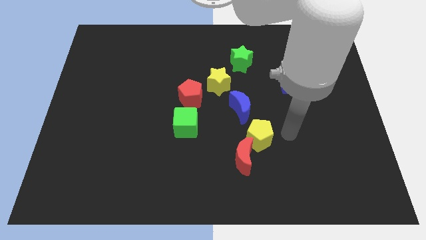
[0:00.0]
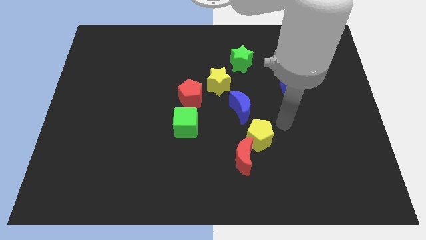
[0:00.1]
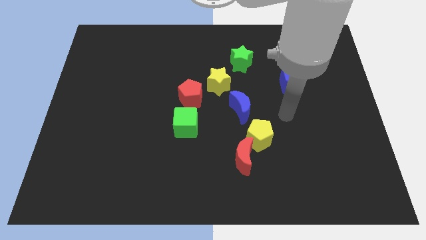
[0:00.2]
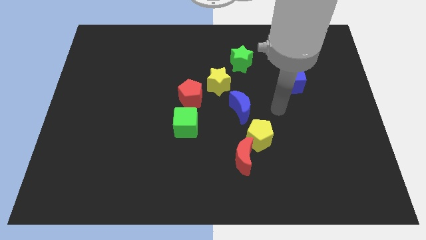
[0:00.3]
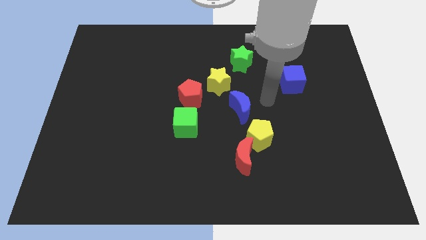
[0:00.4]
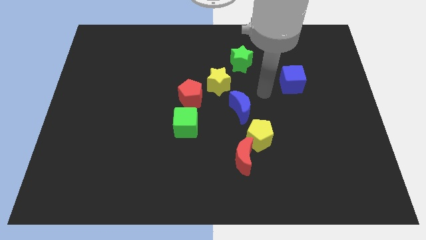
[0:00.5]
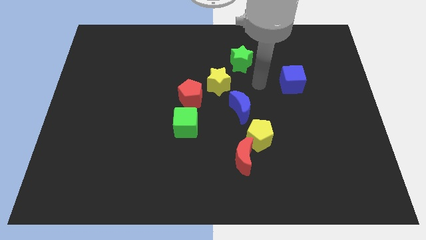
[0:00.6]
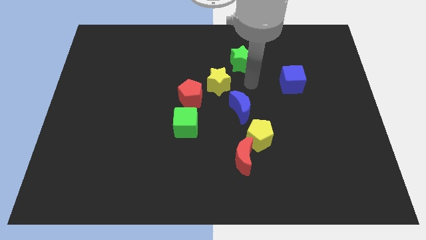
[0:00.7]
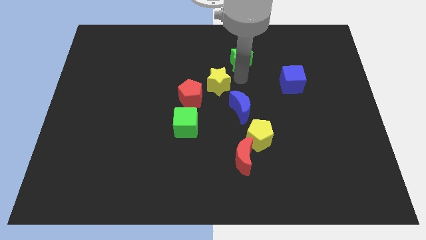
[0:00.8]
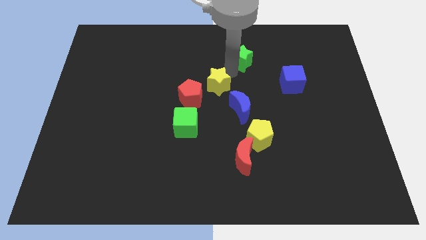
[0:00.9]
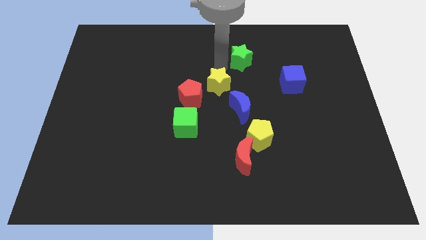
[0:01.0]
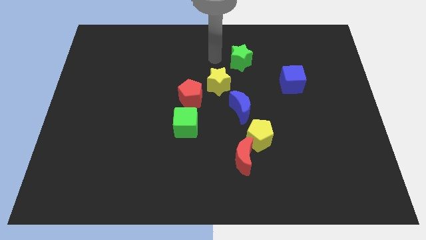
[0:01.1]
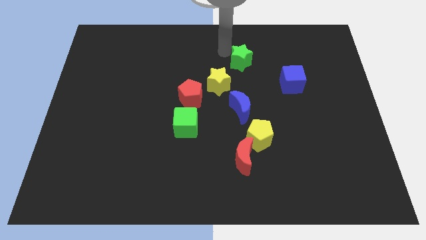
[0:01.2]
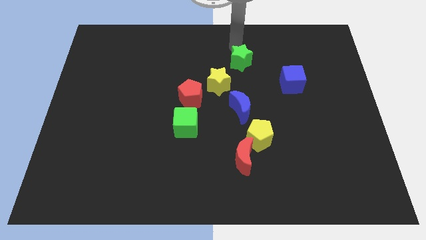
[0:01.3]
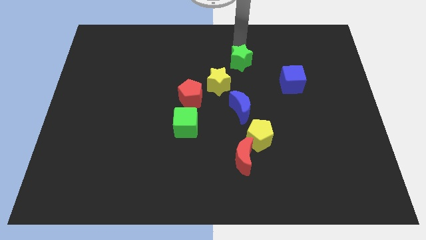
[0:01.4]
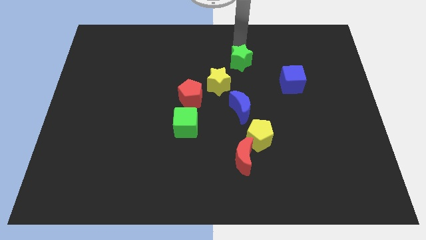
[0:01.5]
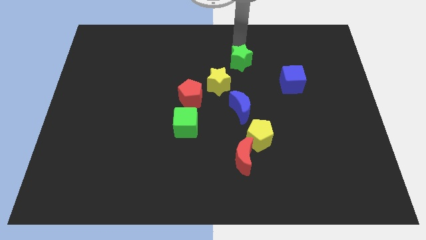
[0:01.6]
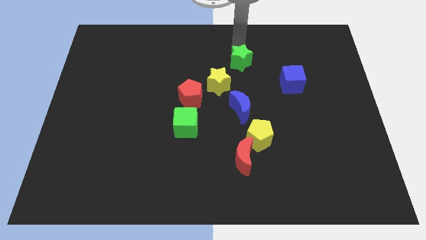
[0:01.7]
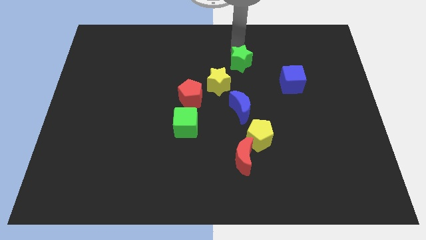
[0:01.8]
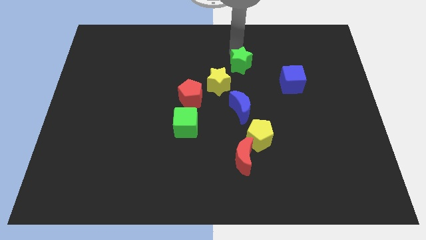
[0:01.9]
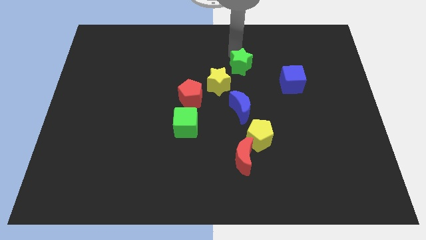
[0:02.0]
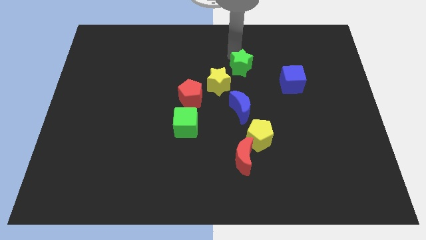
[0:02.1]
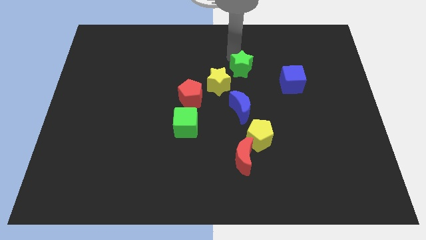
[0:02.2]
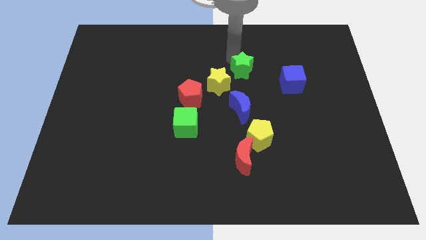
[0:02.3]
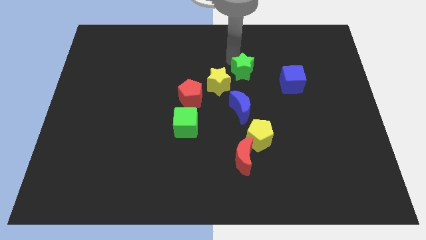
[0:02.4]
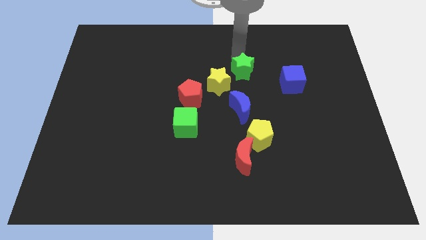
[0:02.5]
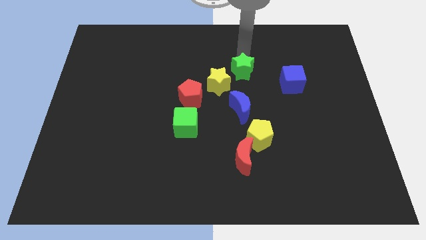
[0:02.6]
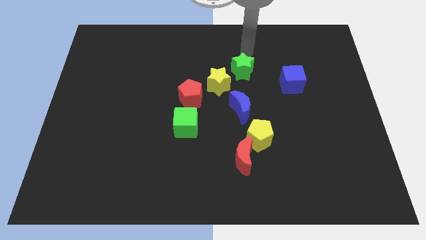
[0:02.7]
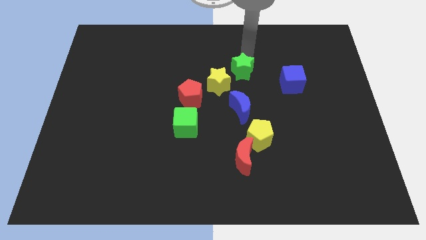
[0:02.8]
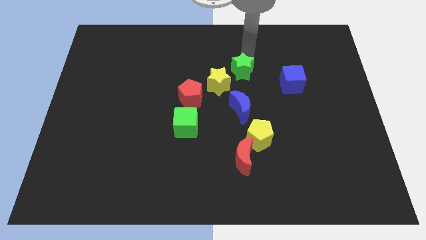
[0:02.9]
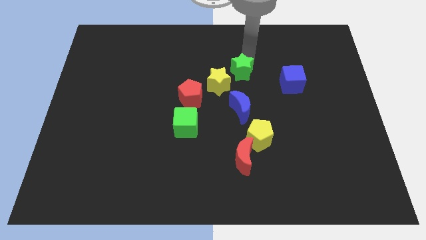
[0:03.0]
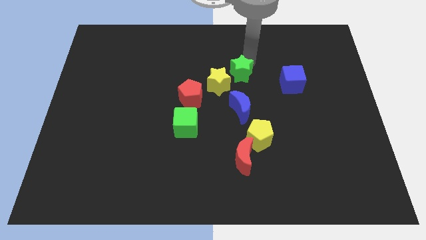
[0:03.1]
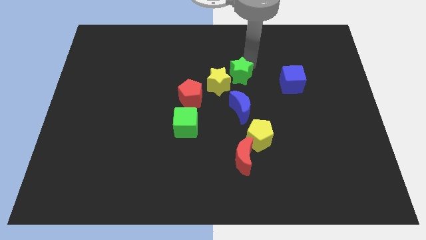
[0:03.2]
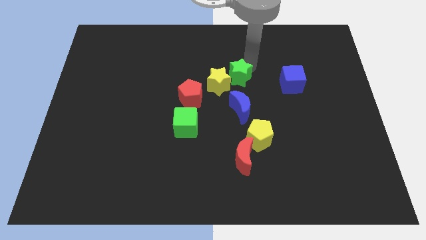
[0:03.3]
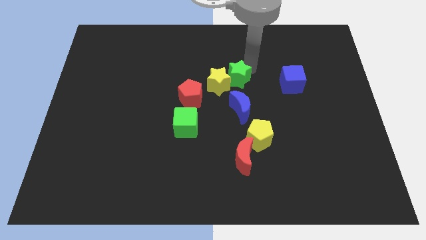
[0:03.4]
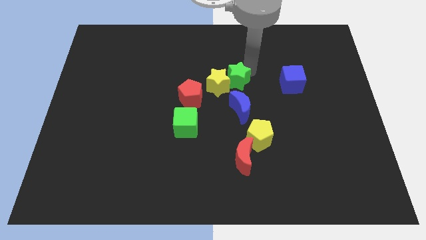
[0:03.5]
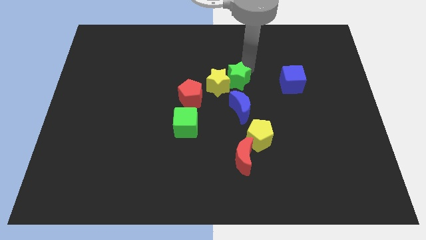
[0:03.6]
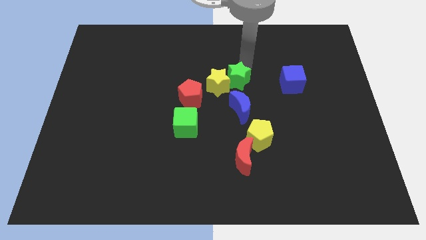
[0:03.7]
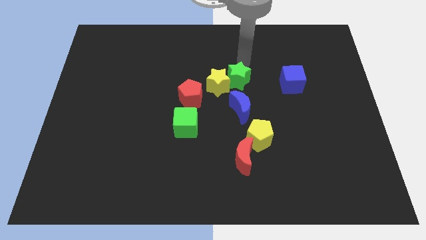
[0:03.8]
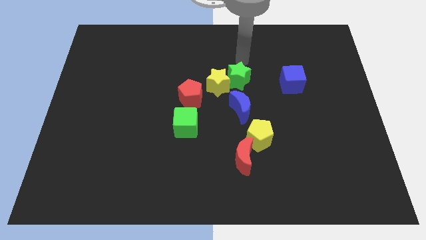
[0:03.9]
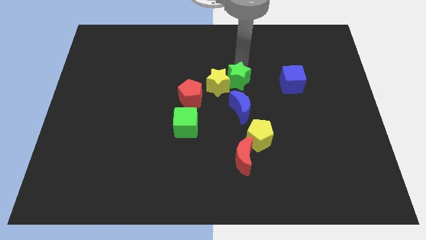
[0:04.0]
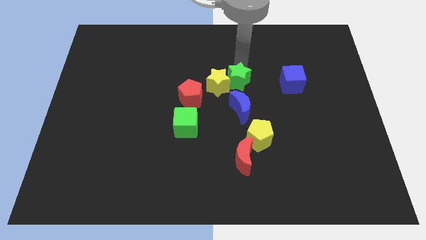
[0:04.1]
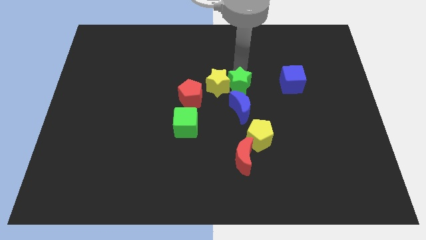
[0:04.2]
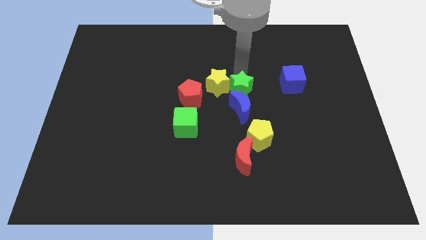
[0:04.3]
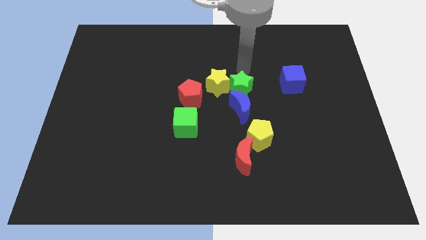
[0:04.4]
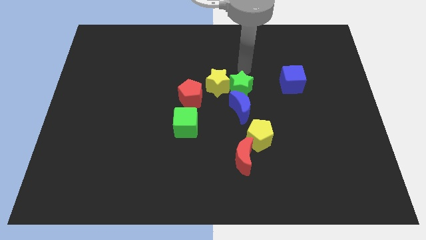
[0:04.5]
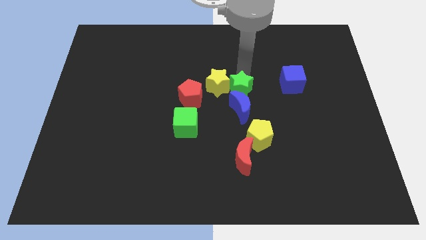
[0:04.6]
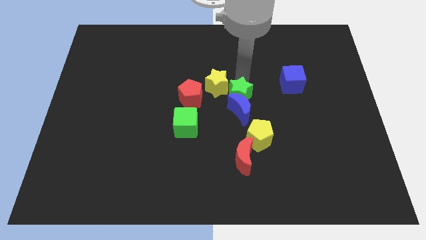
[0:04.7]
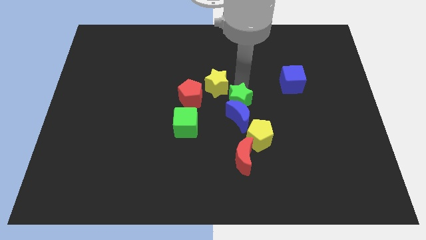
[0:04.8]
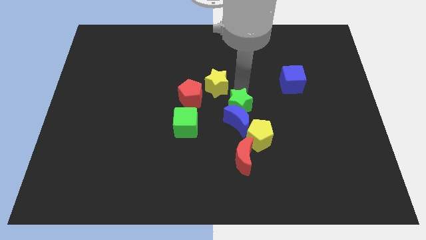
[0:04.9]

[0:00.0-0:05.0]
push the green star diagonally up and to the left of the yellow pentagon

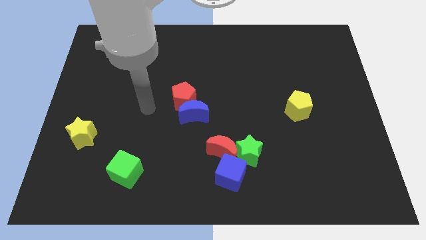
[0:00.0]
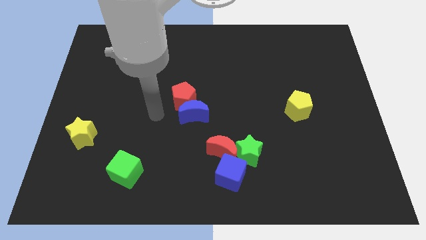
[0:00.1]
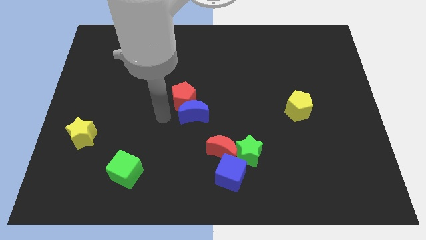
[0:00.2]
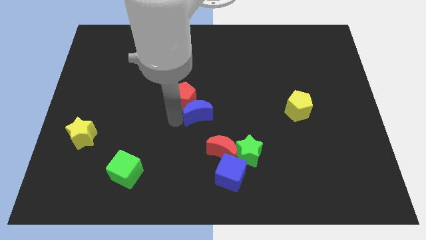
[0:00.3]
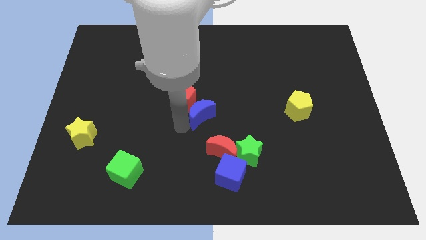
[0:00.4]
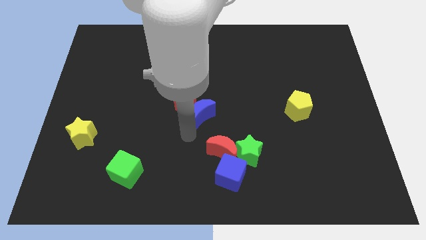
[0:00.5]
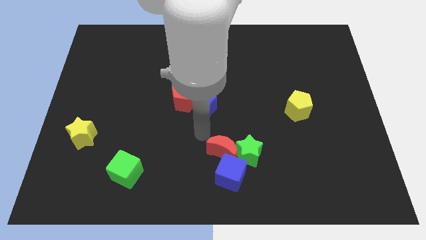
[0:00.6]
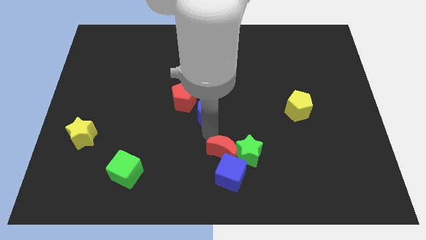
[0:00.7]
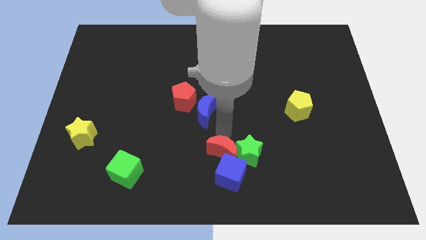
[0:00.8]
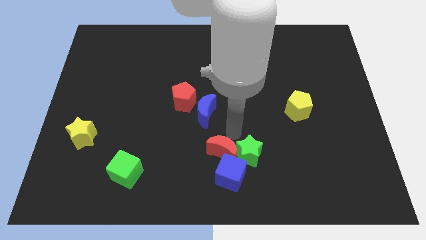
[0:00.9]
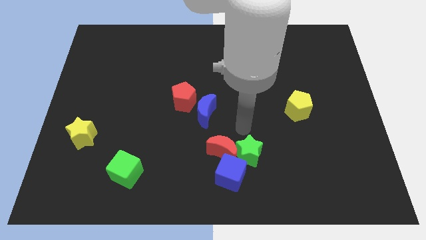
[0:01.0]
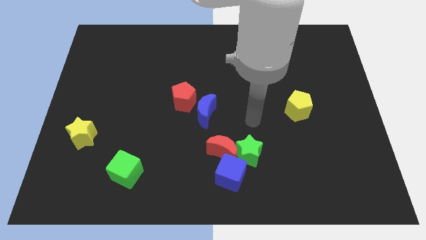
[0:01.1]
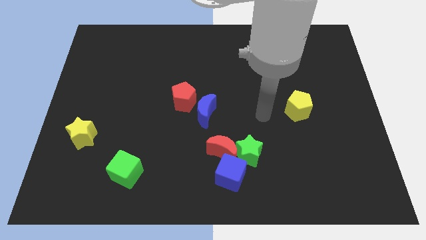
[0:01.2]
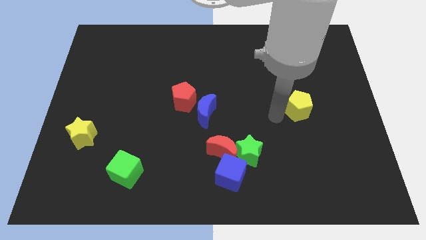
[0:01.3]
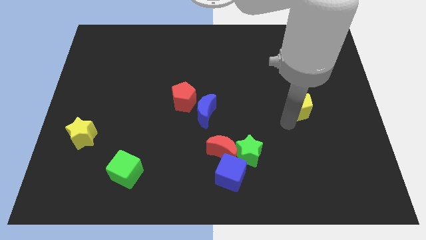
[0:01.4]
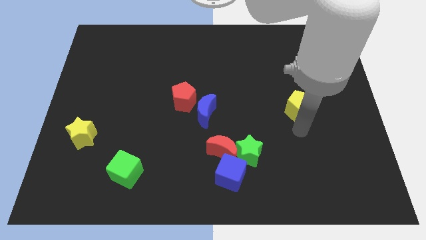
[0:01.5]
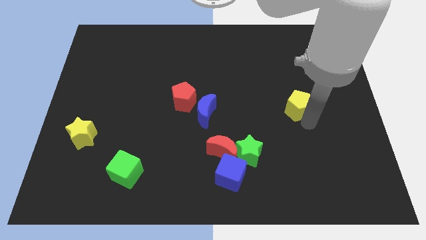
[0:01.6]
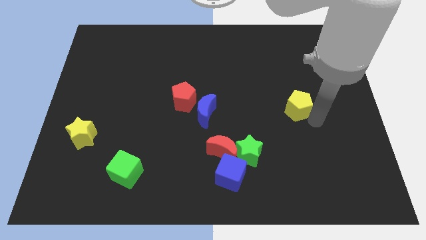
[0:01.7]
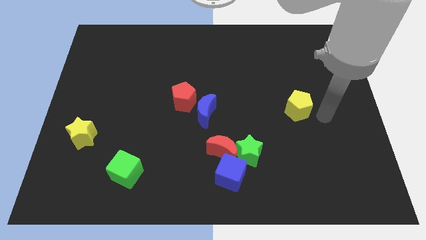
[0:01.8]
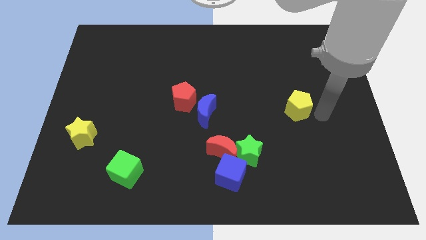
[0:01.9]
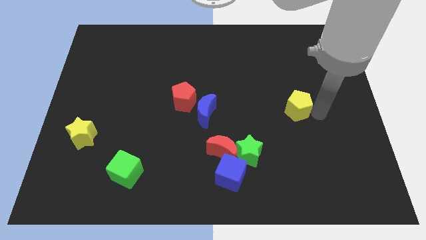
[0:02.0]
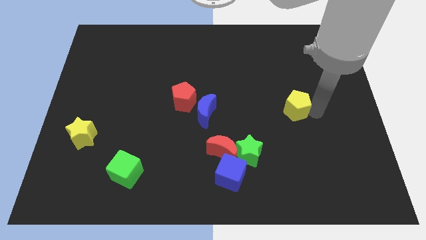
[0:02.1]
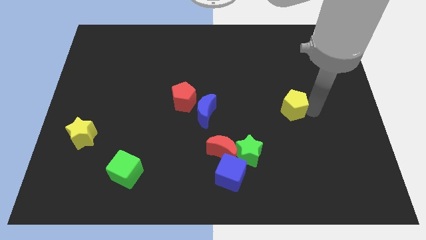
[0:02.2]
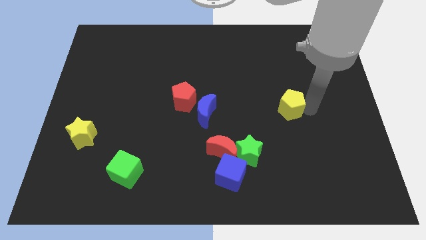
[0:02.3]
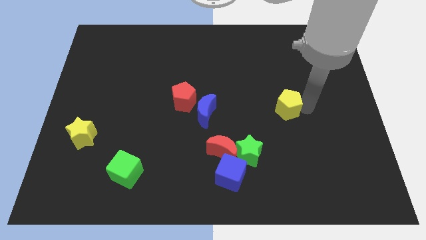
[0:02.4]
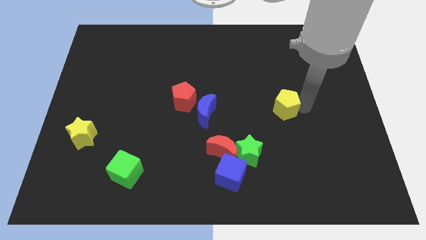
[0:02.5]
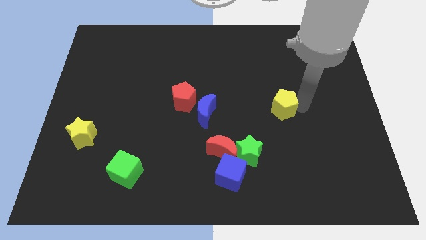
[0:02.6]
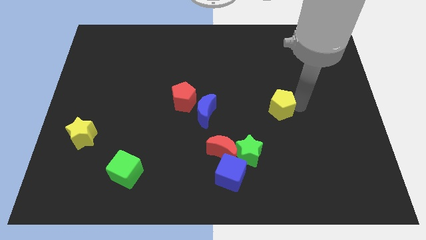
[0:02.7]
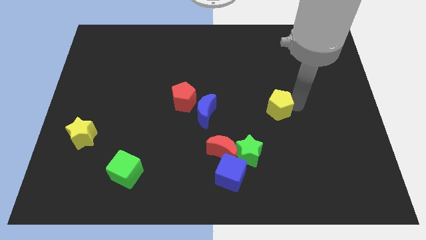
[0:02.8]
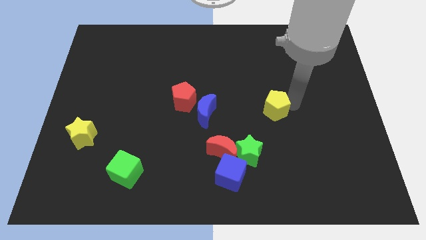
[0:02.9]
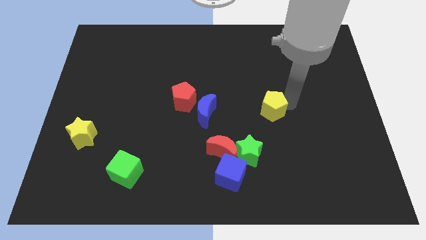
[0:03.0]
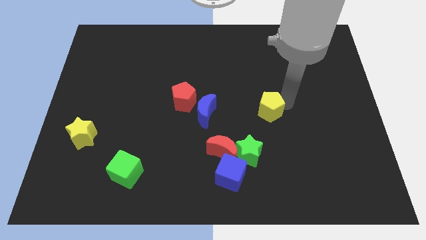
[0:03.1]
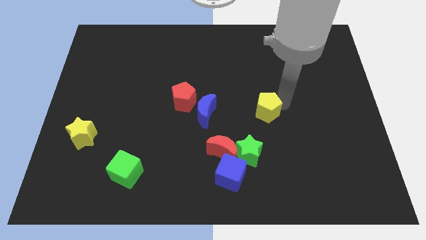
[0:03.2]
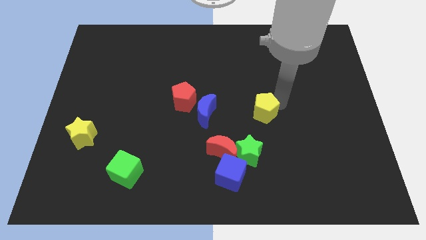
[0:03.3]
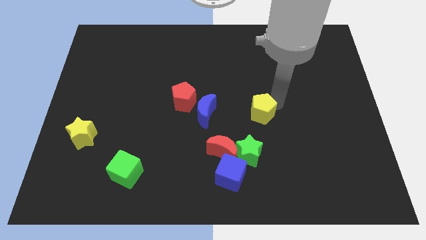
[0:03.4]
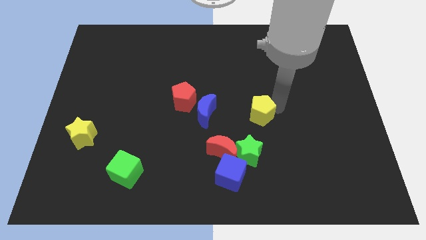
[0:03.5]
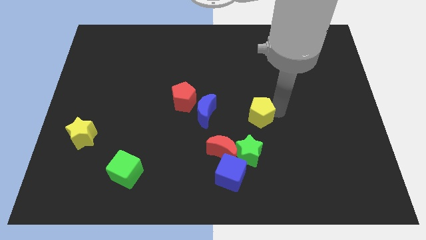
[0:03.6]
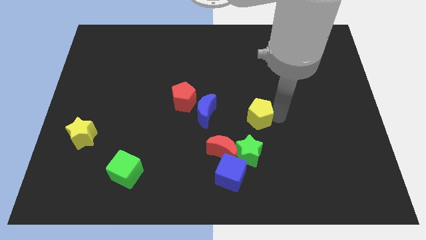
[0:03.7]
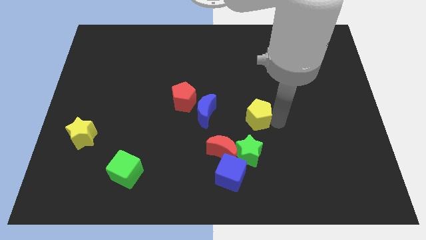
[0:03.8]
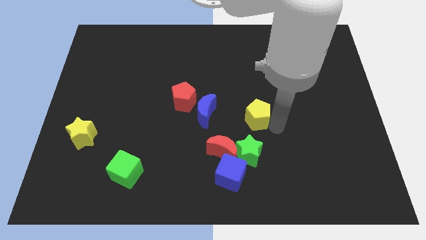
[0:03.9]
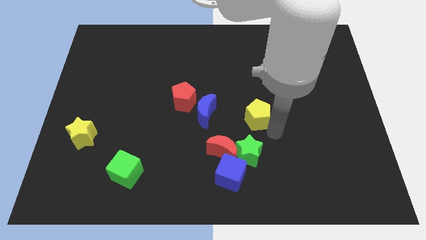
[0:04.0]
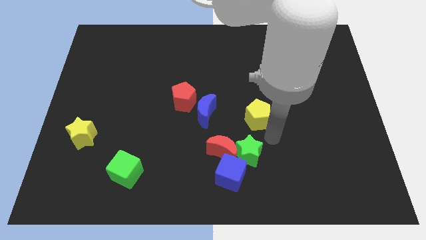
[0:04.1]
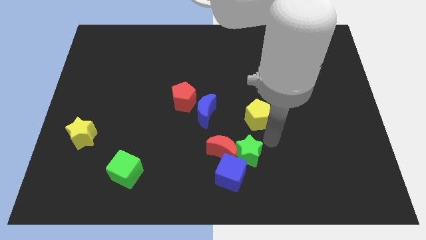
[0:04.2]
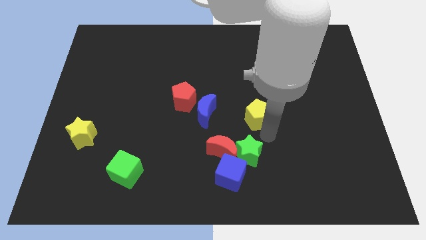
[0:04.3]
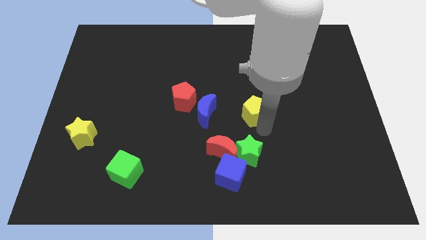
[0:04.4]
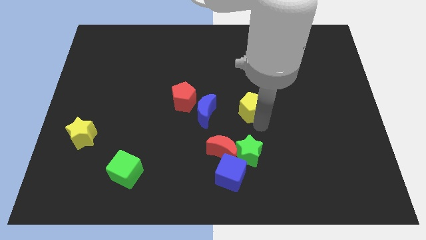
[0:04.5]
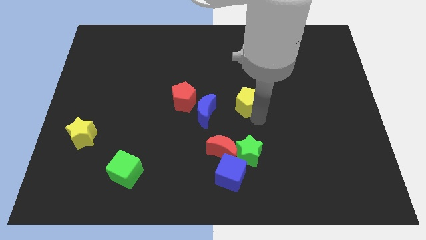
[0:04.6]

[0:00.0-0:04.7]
slide the yellow pentagon to the right side of the red pentagon
